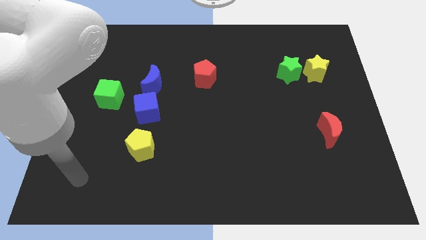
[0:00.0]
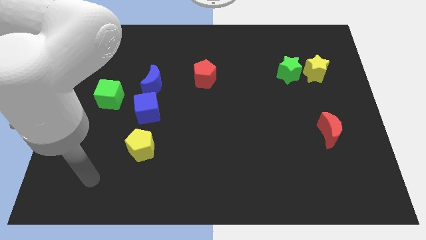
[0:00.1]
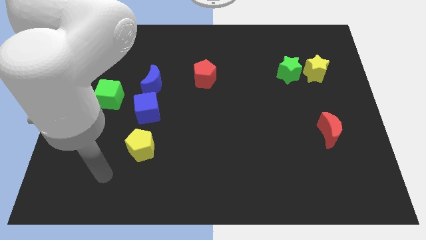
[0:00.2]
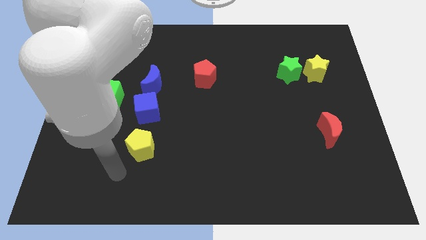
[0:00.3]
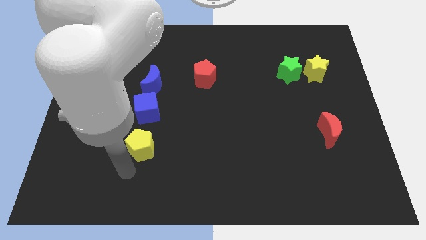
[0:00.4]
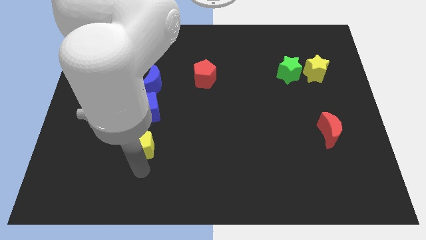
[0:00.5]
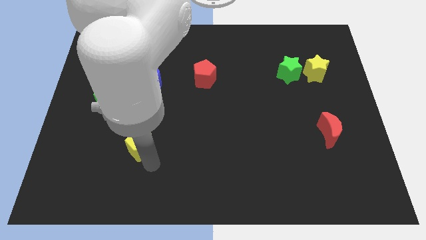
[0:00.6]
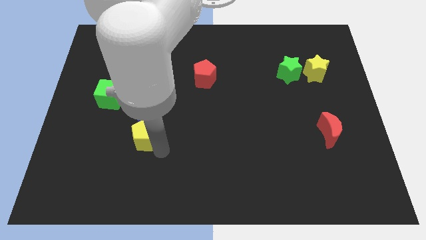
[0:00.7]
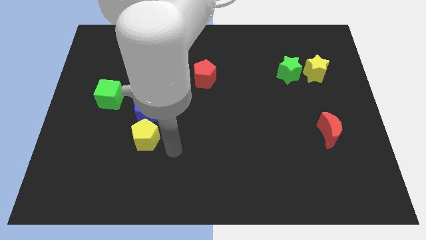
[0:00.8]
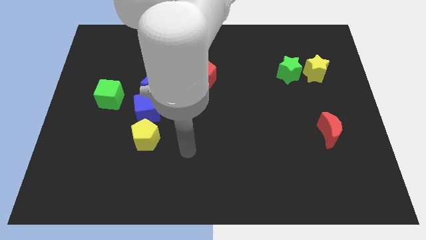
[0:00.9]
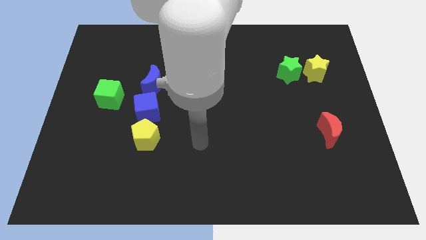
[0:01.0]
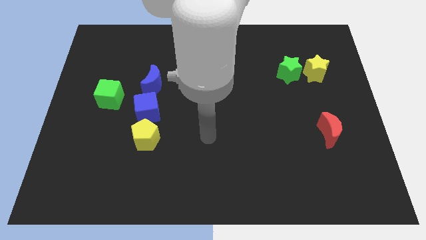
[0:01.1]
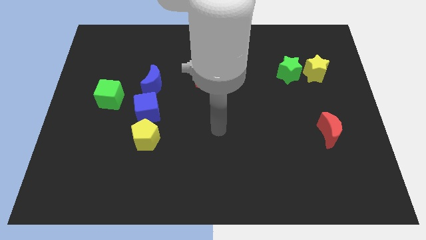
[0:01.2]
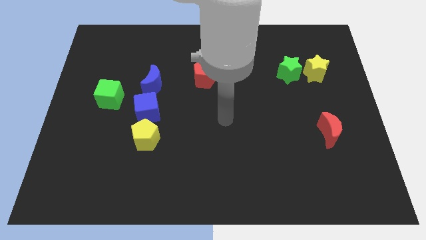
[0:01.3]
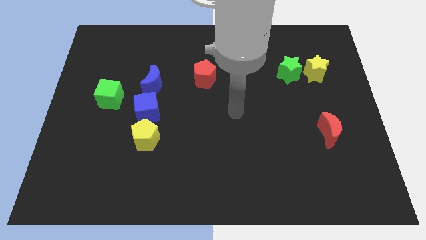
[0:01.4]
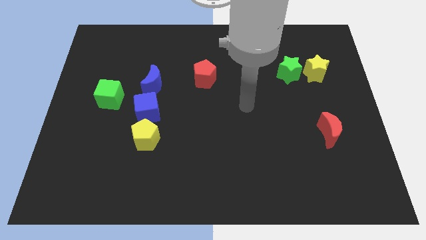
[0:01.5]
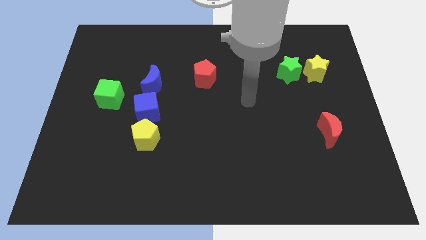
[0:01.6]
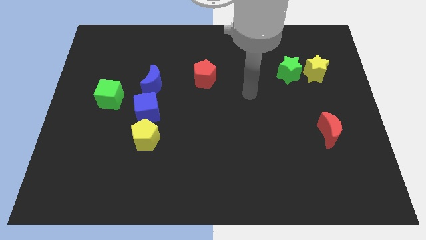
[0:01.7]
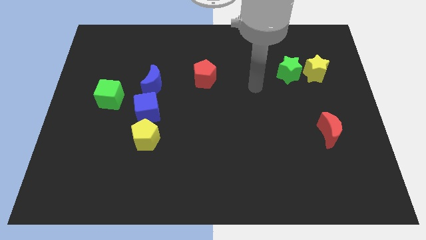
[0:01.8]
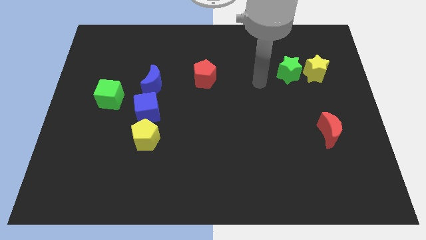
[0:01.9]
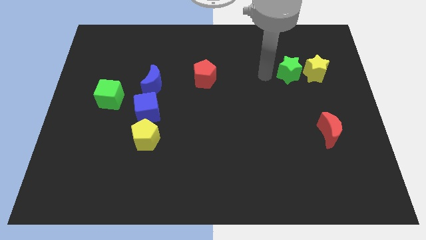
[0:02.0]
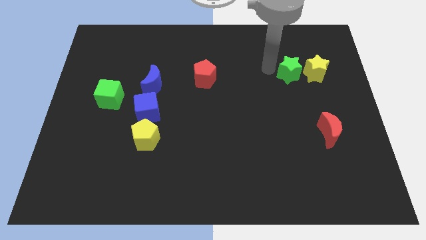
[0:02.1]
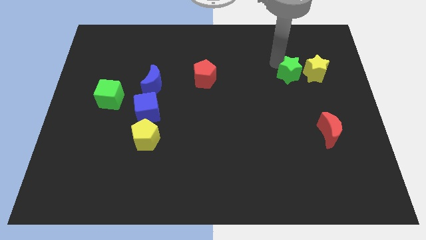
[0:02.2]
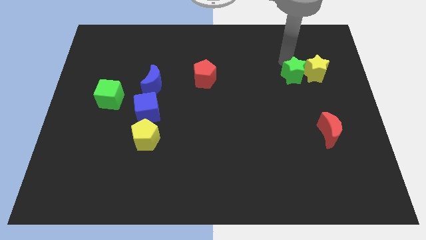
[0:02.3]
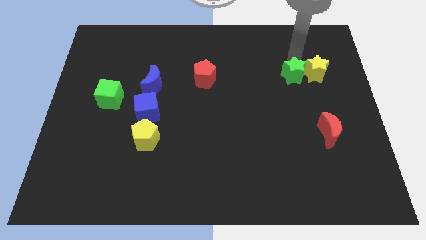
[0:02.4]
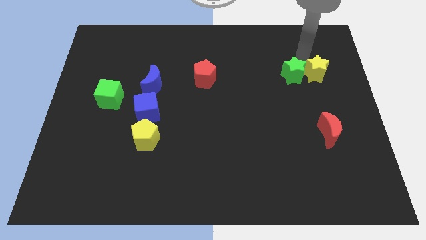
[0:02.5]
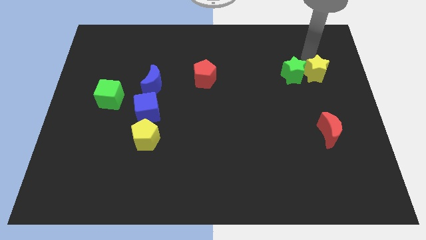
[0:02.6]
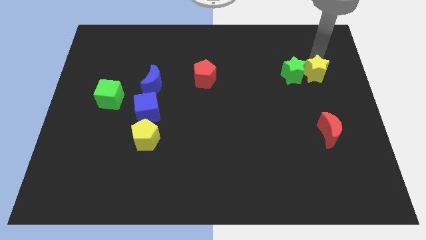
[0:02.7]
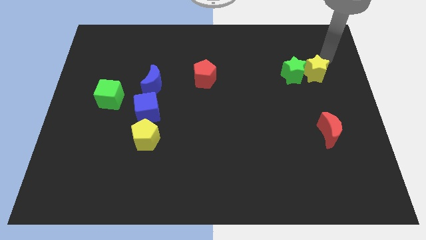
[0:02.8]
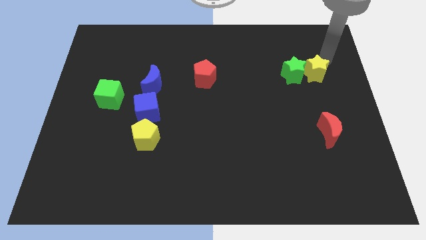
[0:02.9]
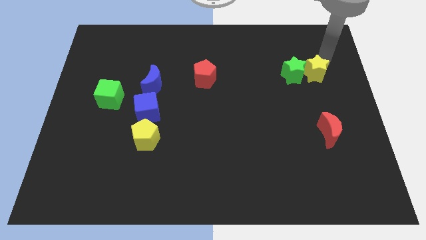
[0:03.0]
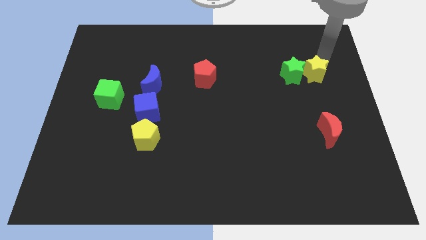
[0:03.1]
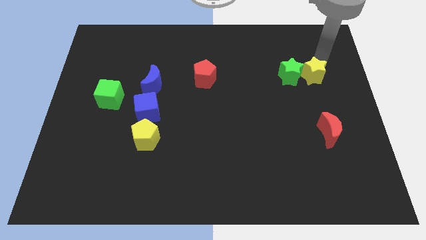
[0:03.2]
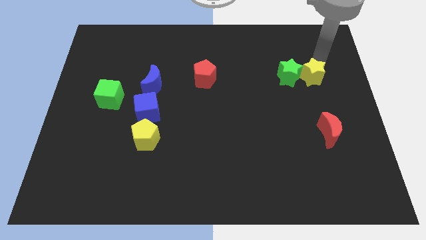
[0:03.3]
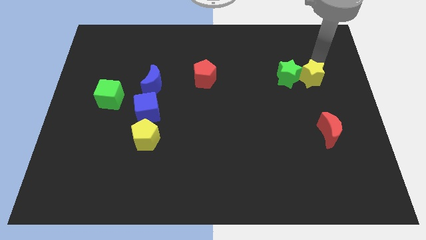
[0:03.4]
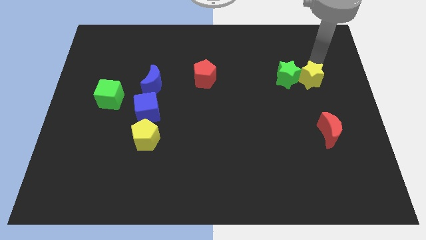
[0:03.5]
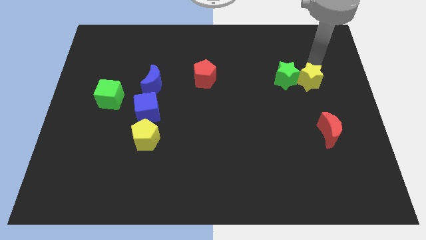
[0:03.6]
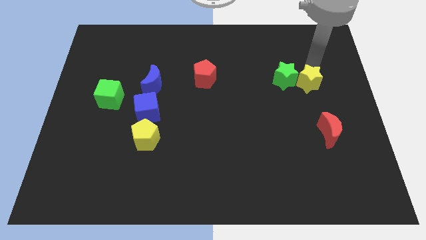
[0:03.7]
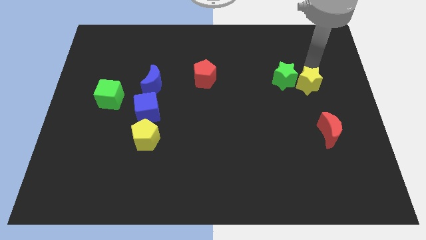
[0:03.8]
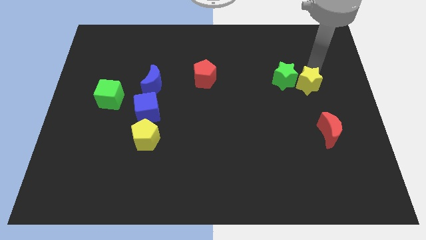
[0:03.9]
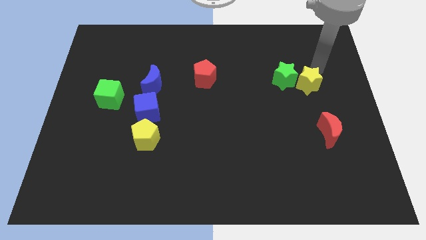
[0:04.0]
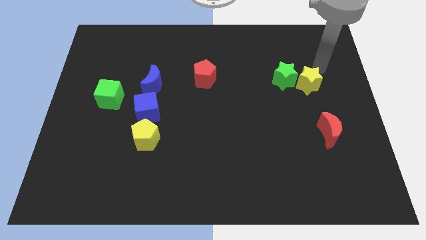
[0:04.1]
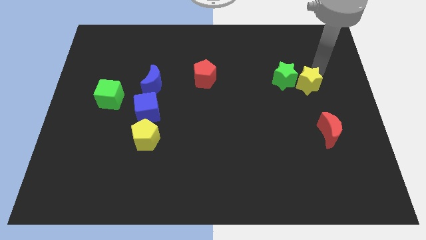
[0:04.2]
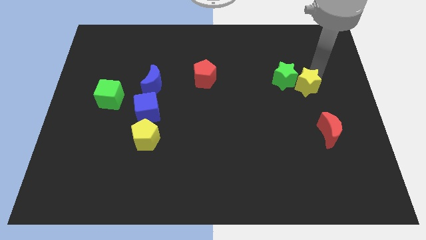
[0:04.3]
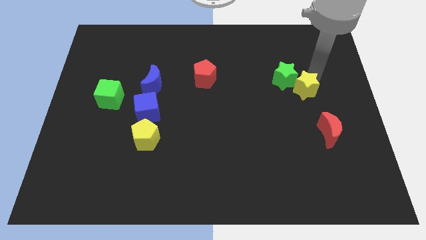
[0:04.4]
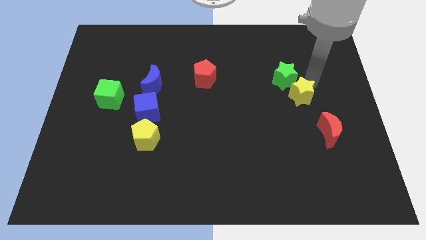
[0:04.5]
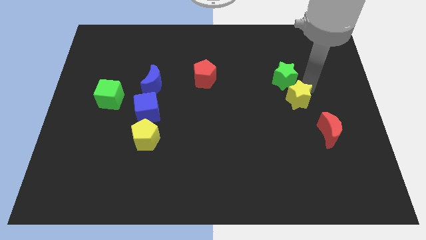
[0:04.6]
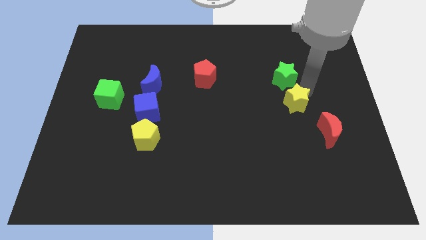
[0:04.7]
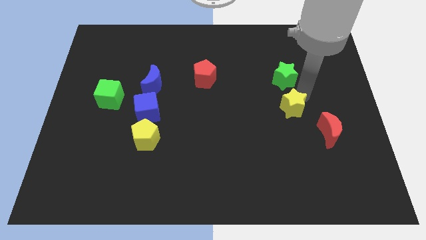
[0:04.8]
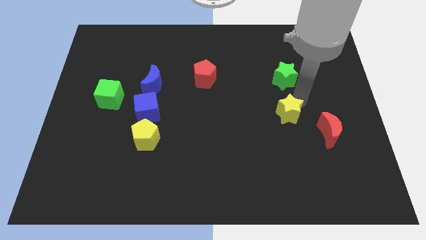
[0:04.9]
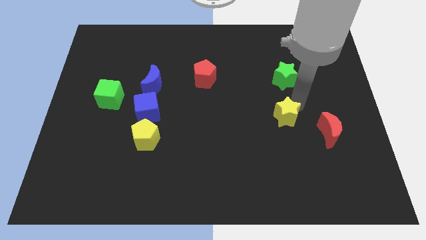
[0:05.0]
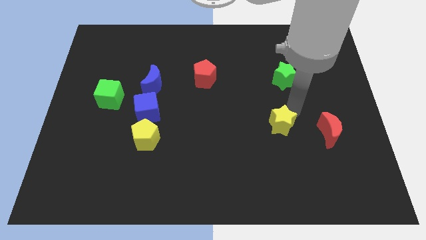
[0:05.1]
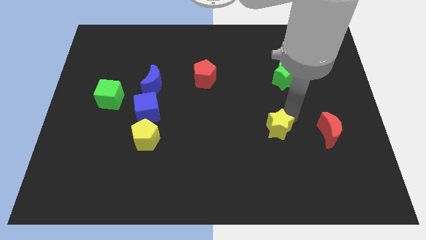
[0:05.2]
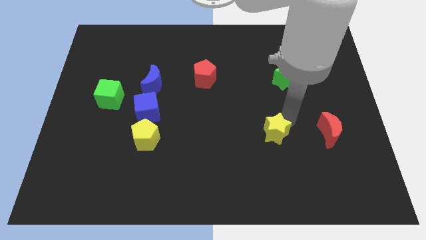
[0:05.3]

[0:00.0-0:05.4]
move the yellow star down and to the left diagonally

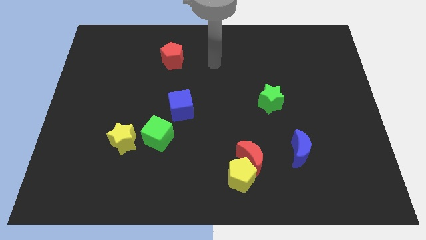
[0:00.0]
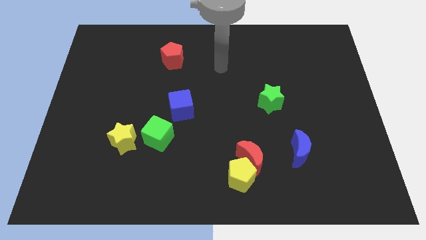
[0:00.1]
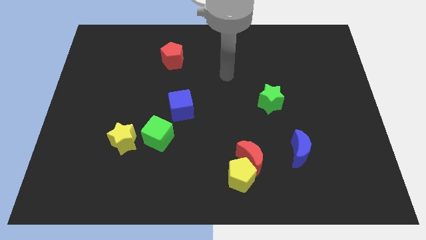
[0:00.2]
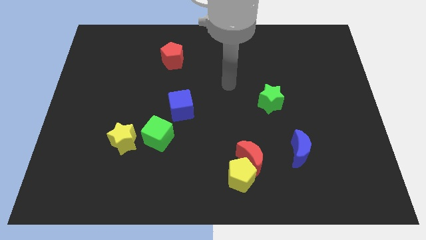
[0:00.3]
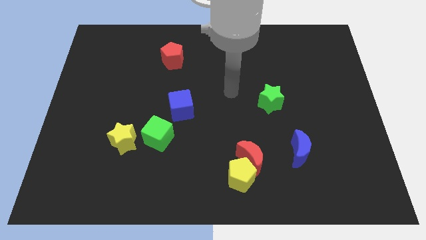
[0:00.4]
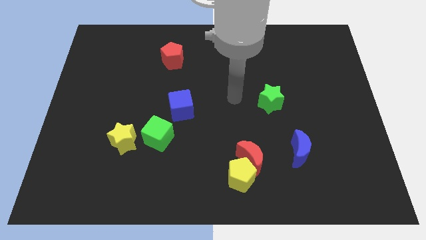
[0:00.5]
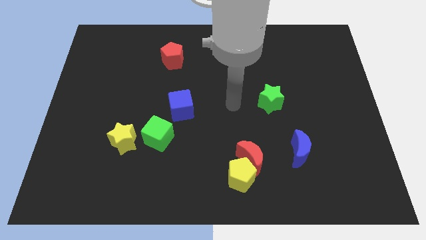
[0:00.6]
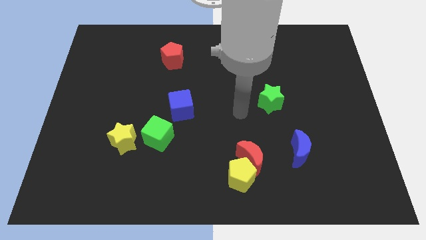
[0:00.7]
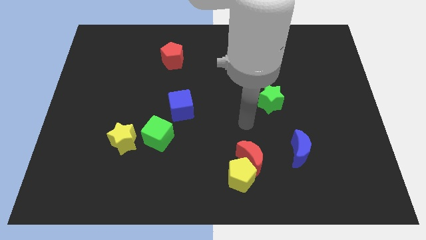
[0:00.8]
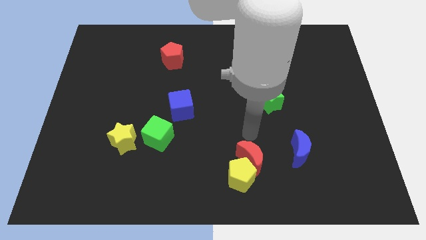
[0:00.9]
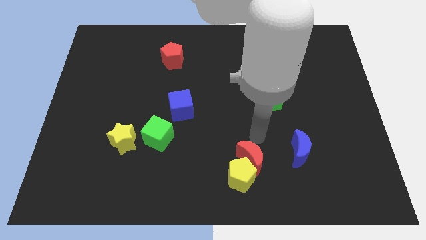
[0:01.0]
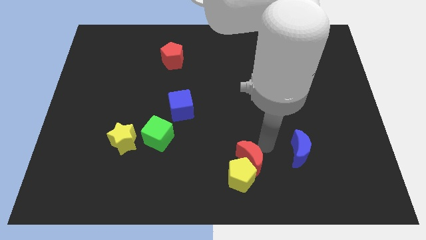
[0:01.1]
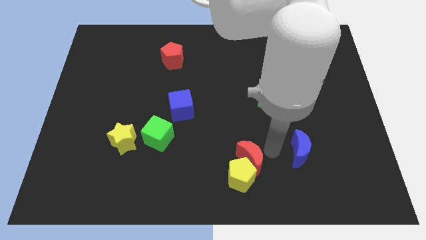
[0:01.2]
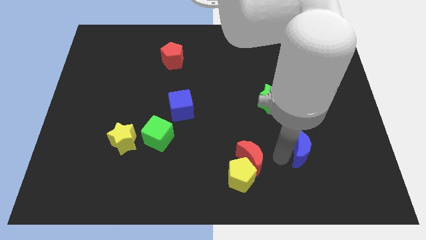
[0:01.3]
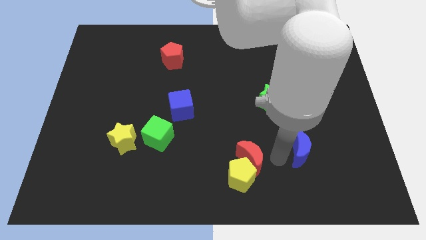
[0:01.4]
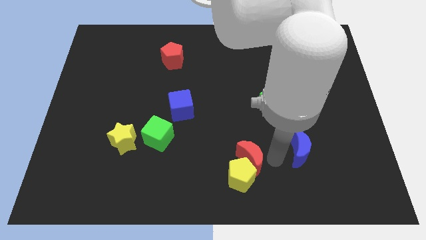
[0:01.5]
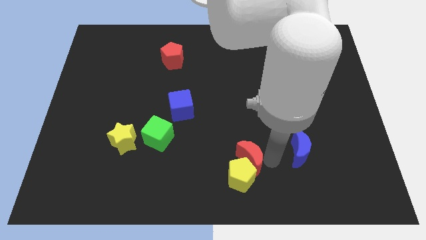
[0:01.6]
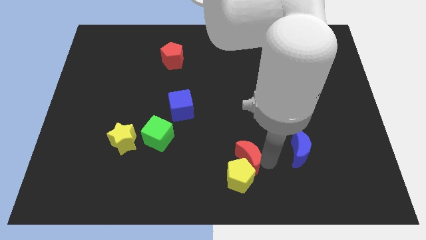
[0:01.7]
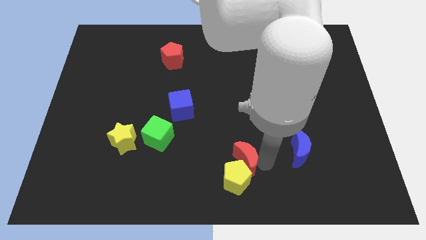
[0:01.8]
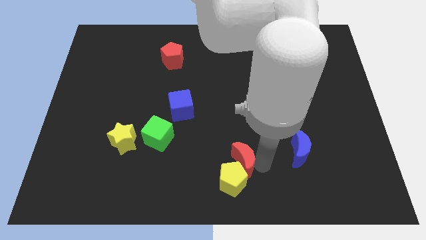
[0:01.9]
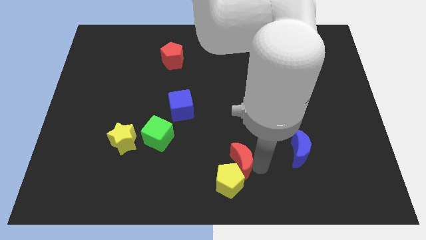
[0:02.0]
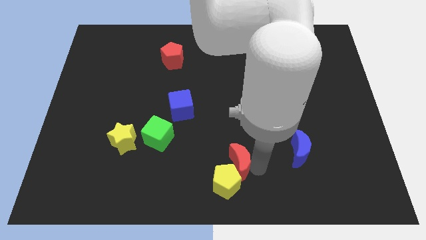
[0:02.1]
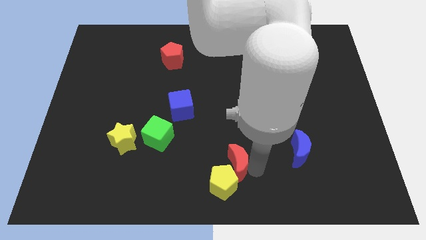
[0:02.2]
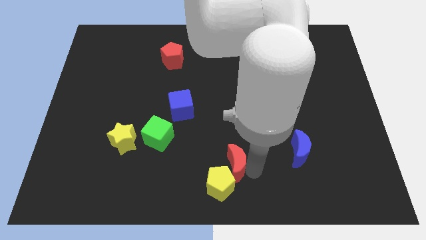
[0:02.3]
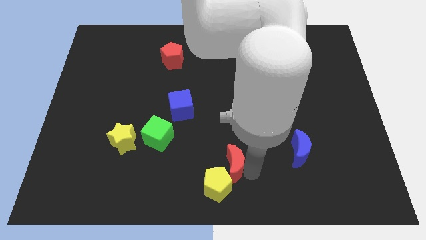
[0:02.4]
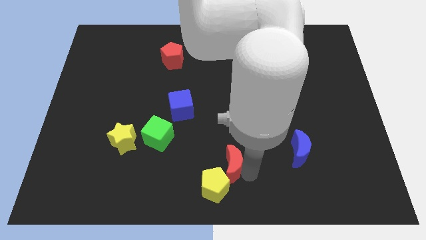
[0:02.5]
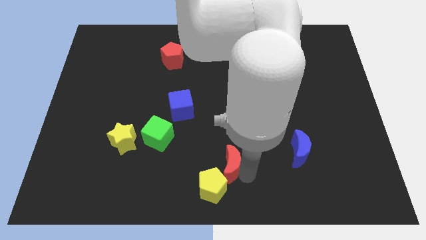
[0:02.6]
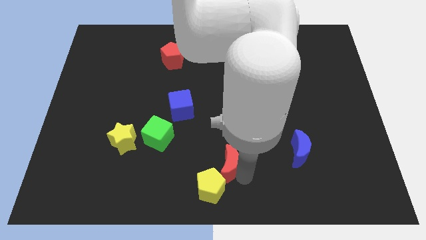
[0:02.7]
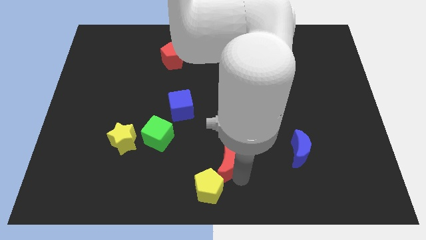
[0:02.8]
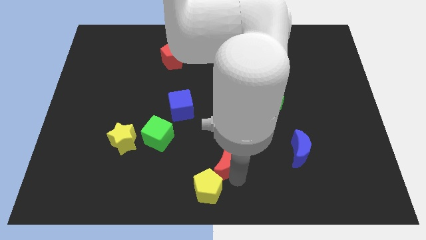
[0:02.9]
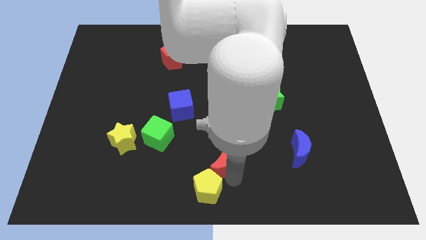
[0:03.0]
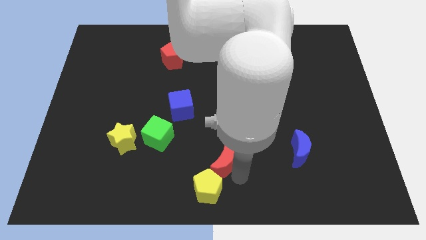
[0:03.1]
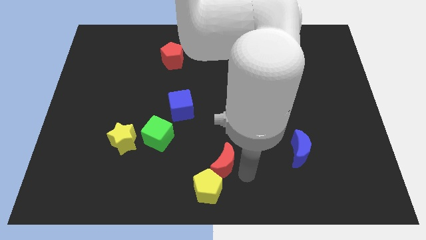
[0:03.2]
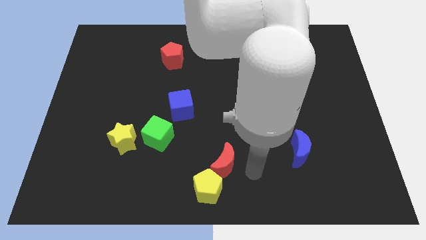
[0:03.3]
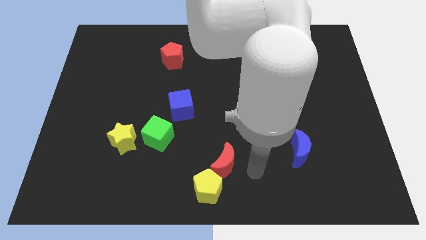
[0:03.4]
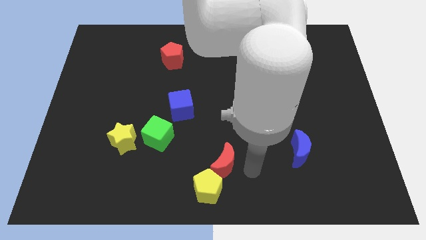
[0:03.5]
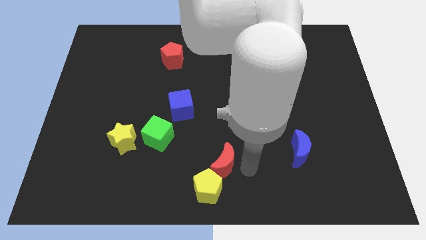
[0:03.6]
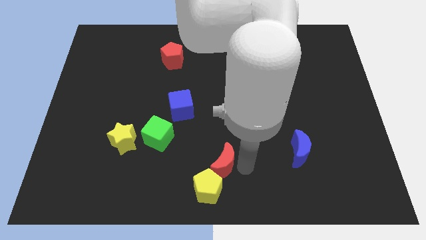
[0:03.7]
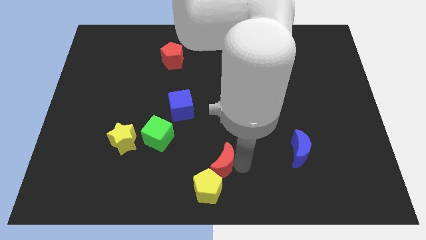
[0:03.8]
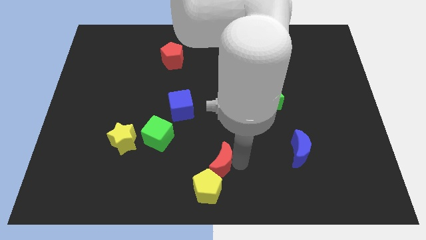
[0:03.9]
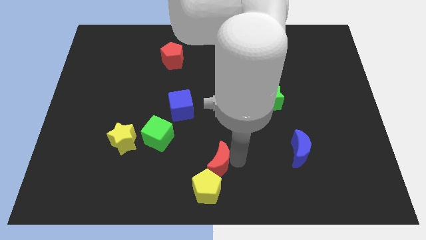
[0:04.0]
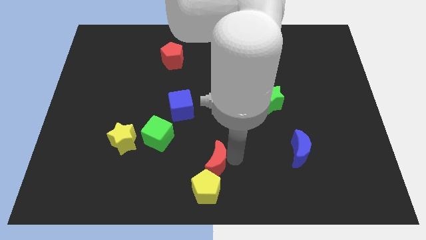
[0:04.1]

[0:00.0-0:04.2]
push the red moon left a little bit
